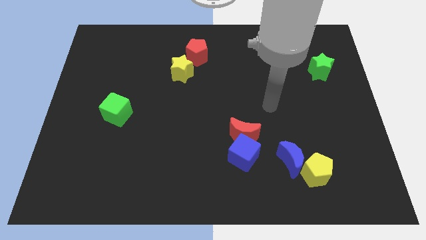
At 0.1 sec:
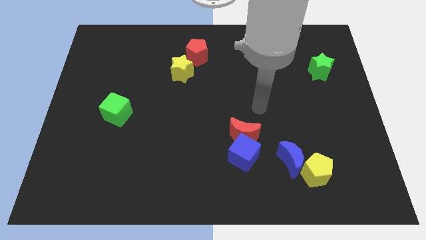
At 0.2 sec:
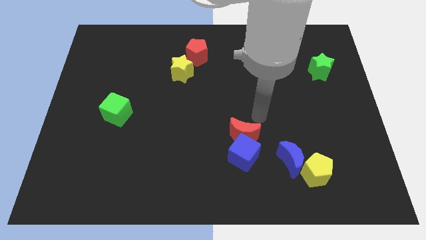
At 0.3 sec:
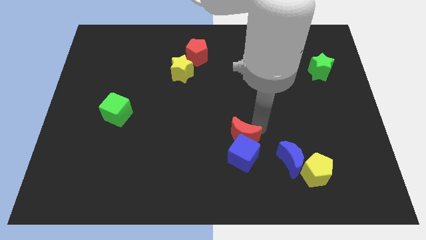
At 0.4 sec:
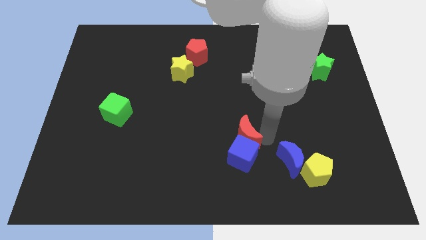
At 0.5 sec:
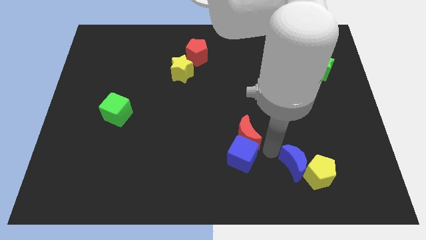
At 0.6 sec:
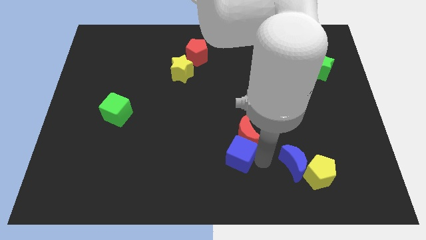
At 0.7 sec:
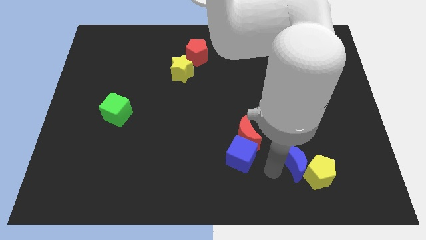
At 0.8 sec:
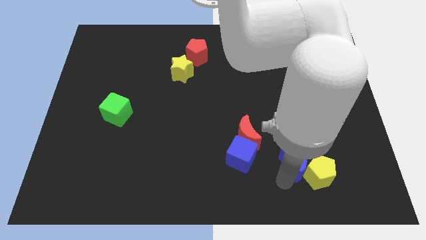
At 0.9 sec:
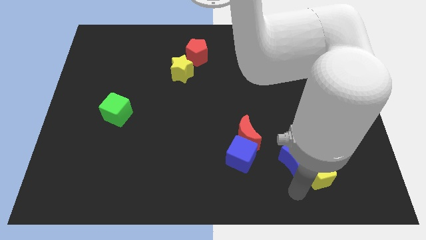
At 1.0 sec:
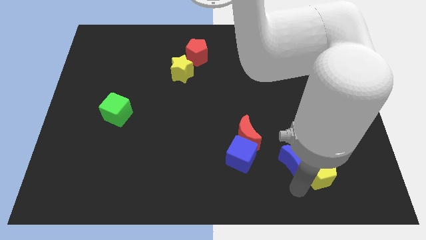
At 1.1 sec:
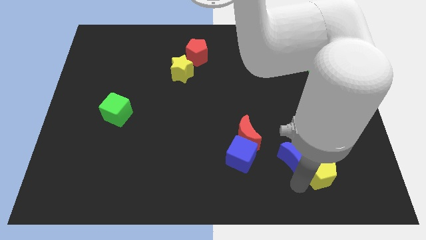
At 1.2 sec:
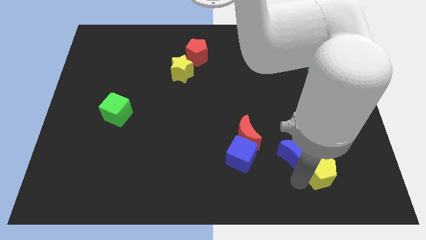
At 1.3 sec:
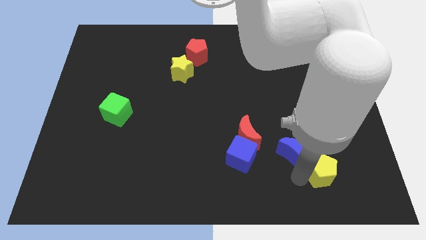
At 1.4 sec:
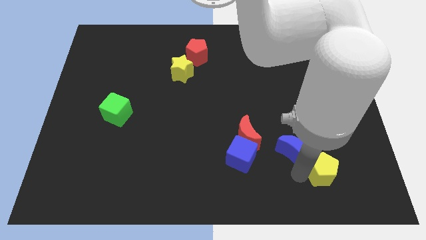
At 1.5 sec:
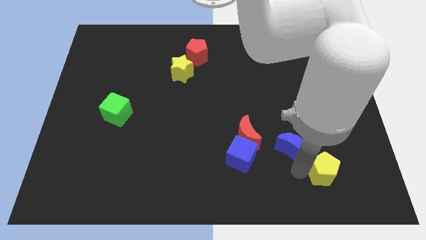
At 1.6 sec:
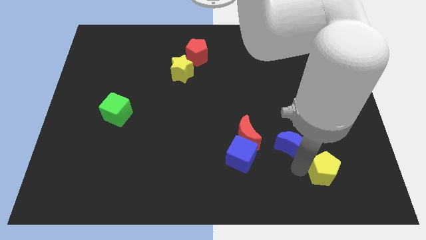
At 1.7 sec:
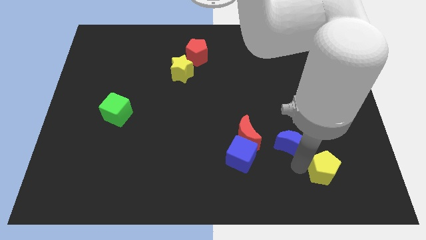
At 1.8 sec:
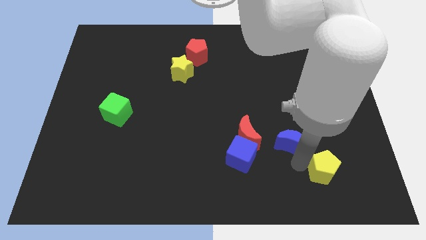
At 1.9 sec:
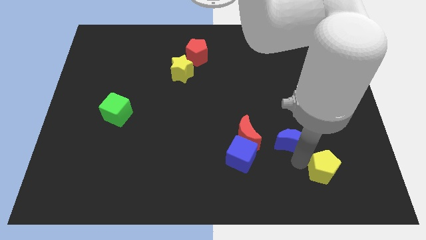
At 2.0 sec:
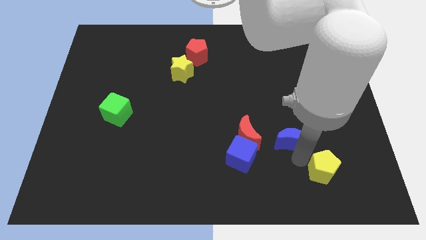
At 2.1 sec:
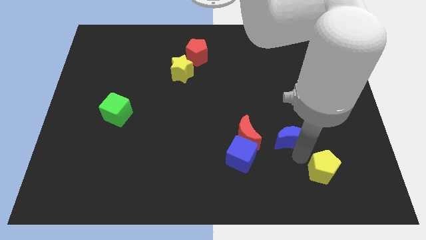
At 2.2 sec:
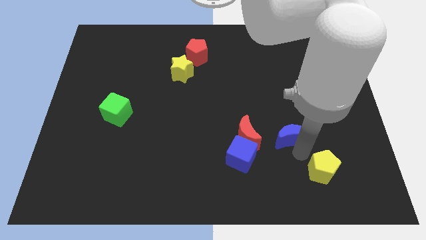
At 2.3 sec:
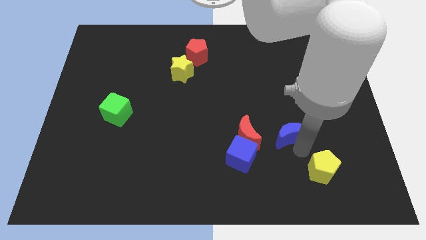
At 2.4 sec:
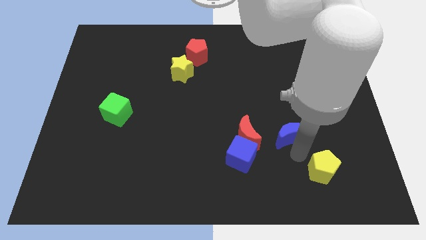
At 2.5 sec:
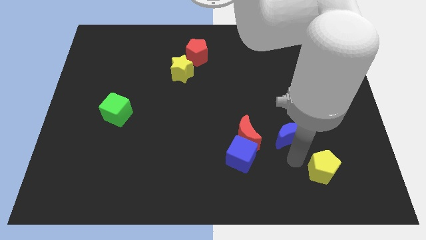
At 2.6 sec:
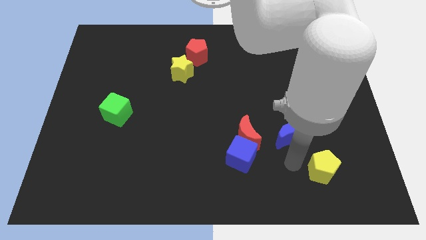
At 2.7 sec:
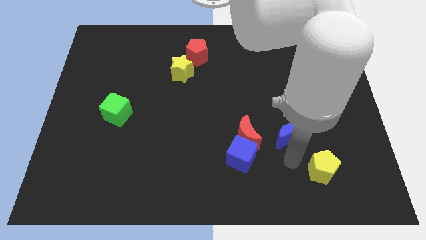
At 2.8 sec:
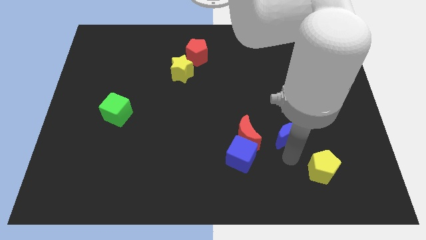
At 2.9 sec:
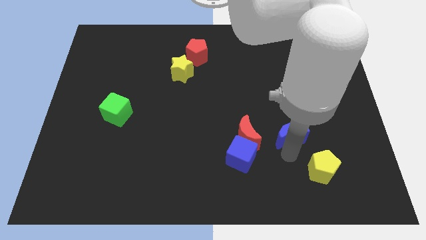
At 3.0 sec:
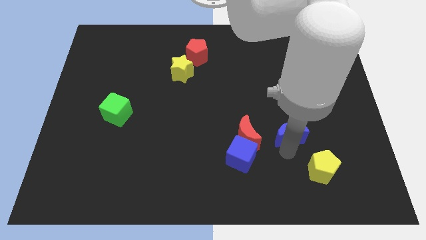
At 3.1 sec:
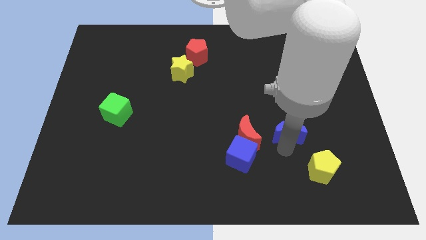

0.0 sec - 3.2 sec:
slightly push the blue moon up

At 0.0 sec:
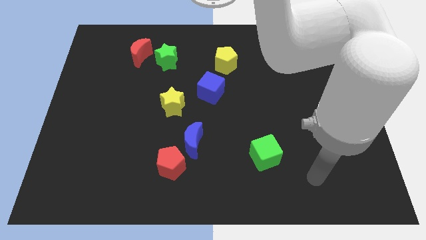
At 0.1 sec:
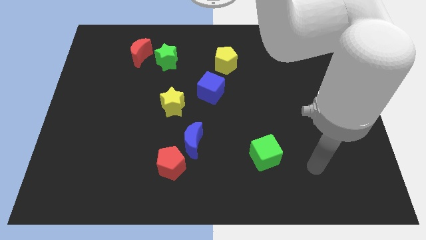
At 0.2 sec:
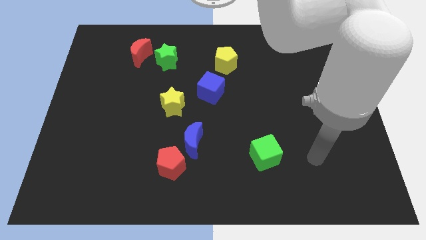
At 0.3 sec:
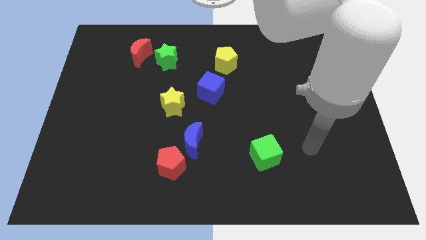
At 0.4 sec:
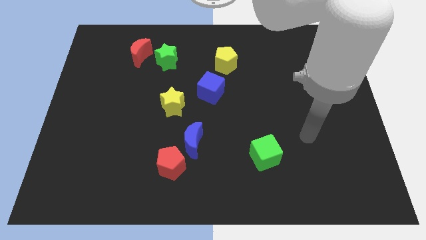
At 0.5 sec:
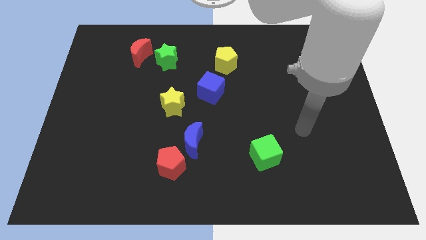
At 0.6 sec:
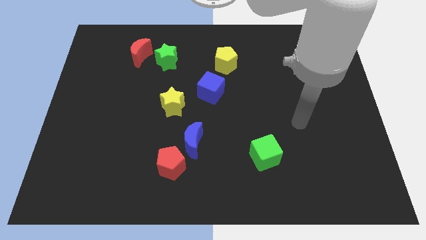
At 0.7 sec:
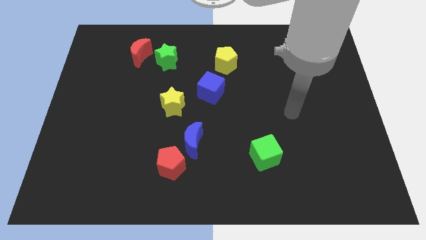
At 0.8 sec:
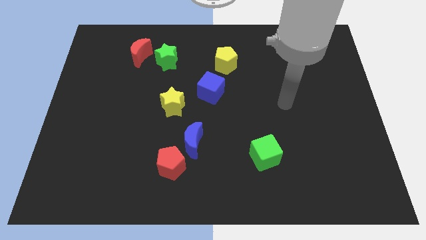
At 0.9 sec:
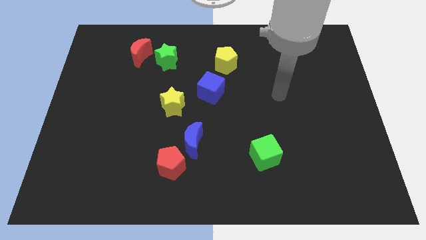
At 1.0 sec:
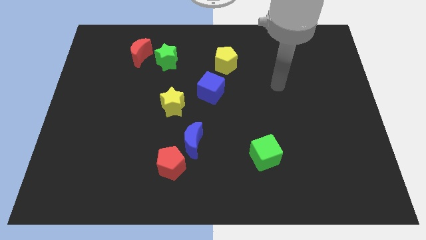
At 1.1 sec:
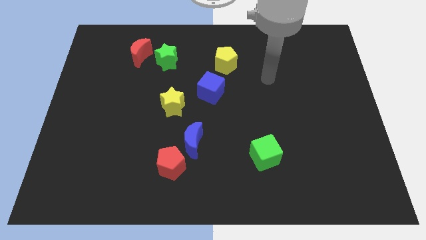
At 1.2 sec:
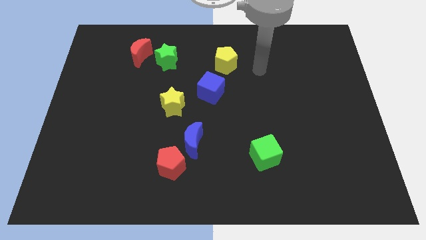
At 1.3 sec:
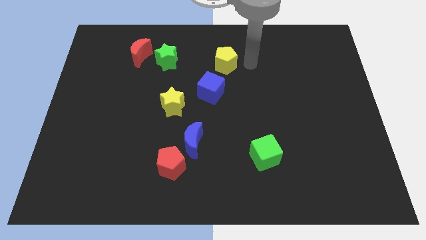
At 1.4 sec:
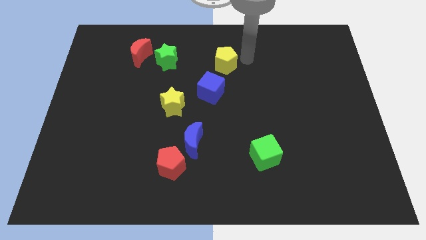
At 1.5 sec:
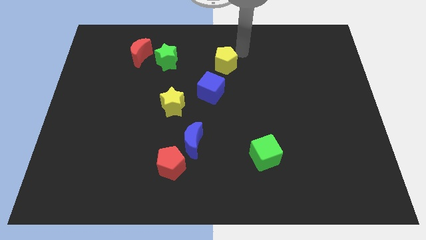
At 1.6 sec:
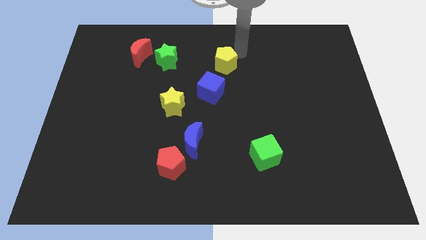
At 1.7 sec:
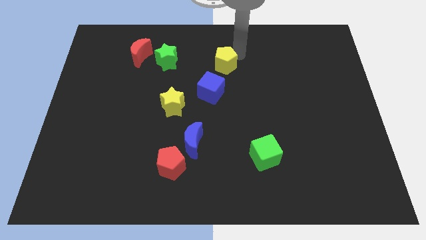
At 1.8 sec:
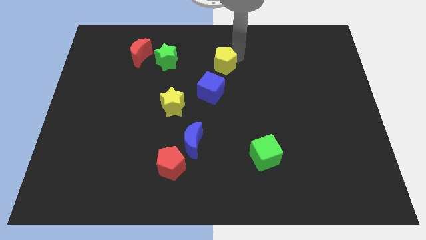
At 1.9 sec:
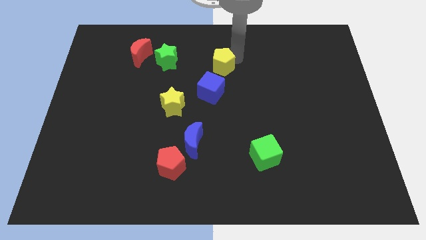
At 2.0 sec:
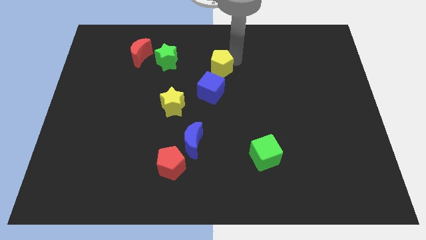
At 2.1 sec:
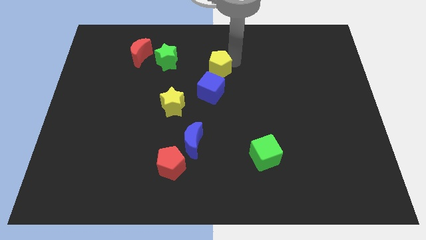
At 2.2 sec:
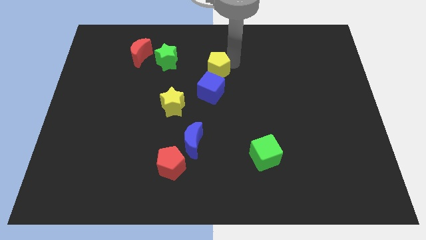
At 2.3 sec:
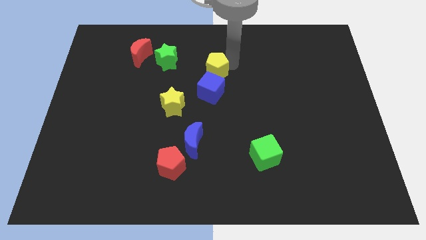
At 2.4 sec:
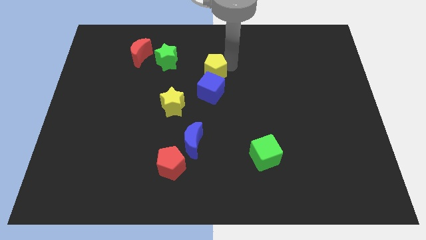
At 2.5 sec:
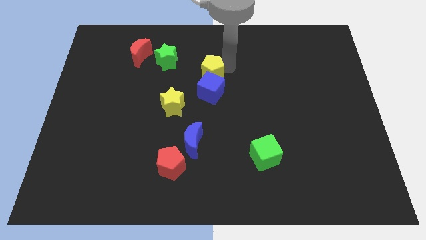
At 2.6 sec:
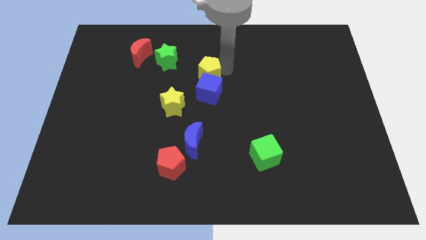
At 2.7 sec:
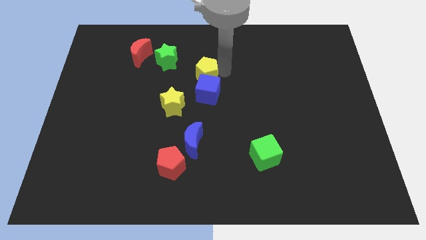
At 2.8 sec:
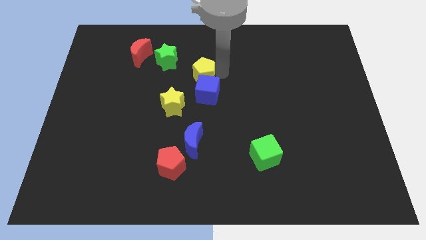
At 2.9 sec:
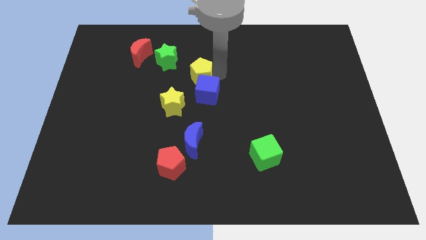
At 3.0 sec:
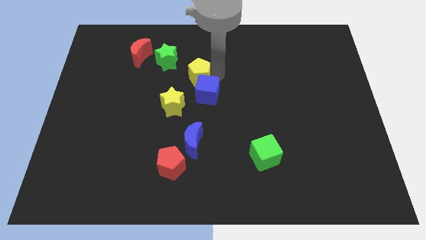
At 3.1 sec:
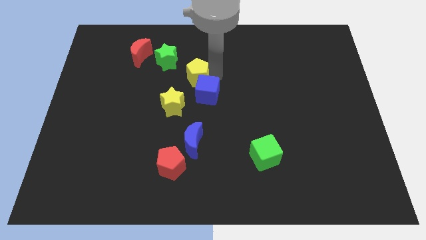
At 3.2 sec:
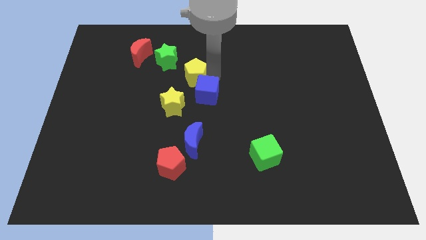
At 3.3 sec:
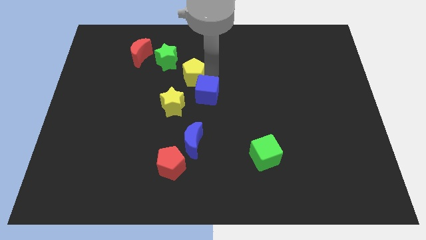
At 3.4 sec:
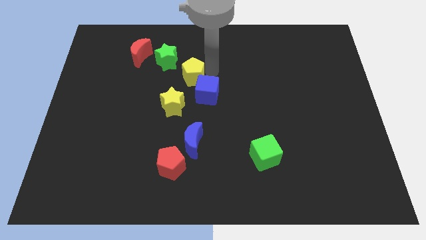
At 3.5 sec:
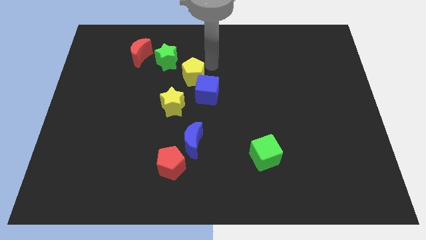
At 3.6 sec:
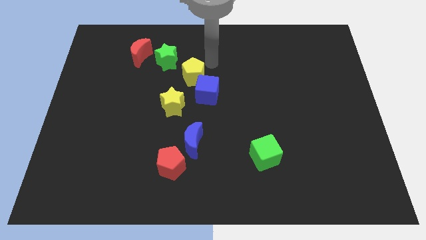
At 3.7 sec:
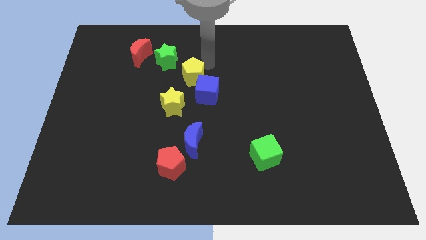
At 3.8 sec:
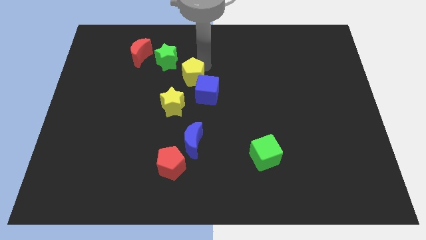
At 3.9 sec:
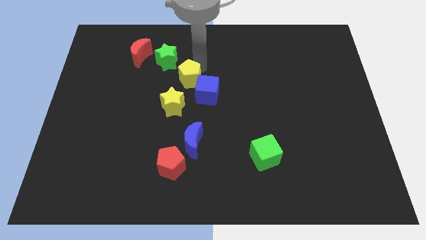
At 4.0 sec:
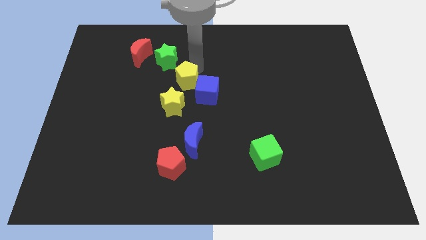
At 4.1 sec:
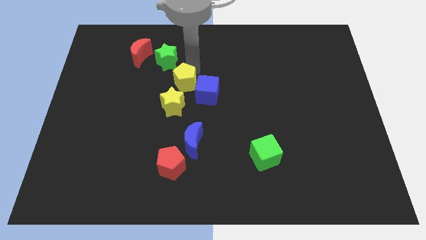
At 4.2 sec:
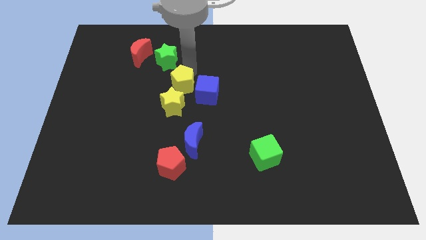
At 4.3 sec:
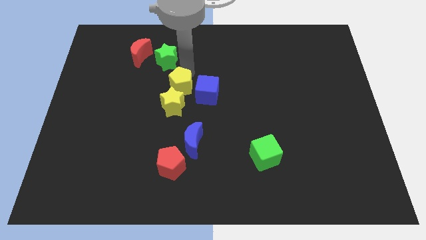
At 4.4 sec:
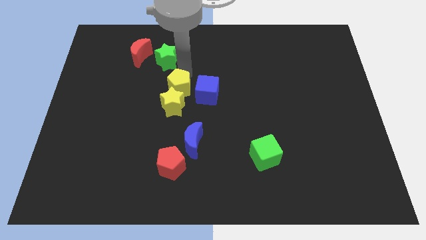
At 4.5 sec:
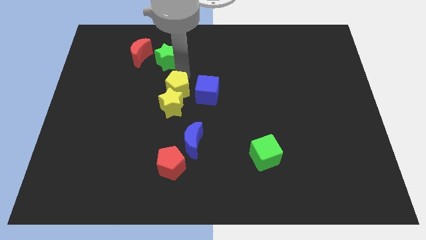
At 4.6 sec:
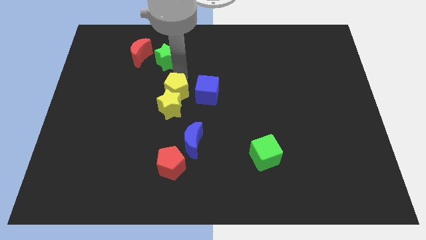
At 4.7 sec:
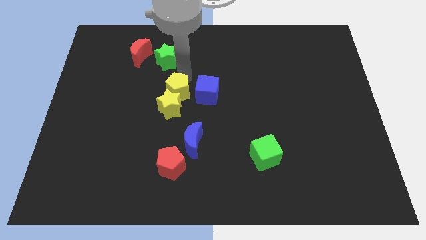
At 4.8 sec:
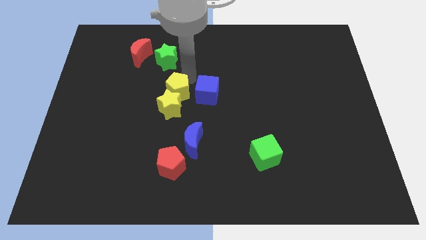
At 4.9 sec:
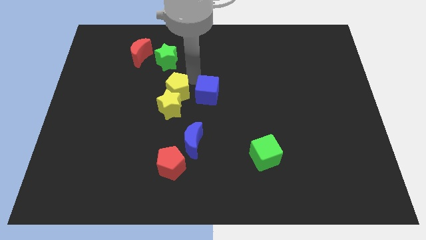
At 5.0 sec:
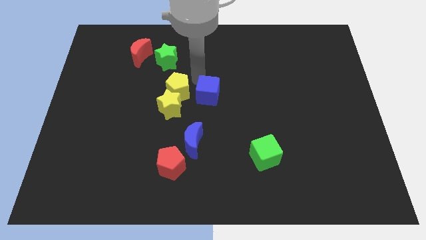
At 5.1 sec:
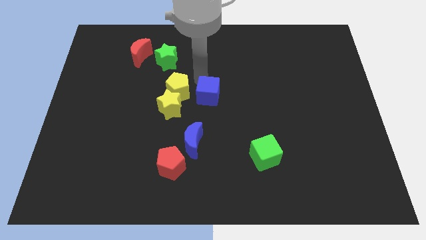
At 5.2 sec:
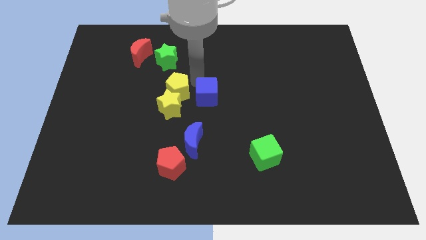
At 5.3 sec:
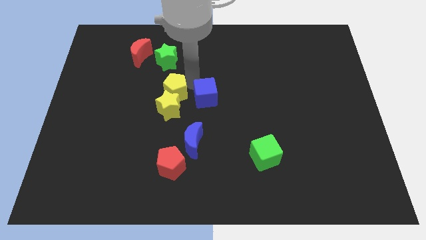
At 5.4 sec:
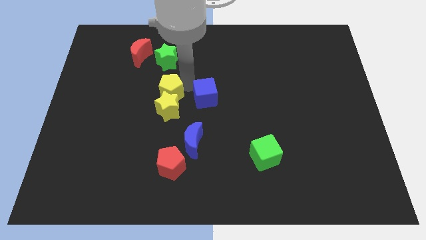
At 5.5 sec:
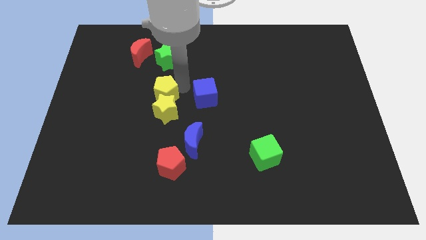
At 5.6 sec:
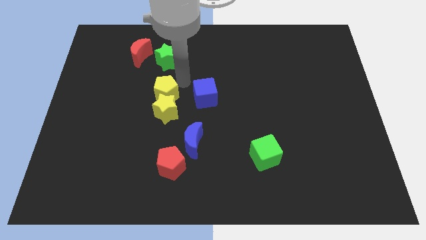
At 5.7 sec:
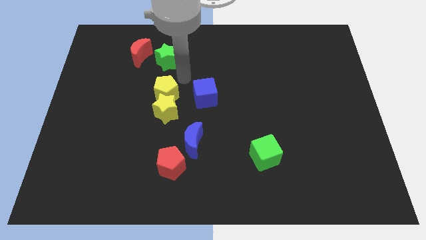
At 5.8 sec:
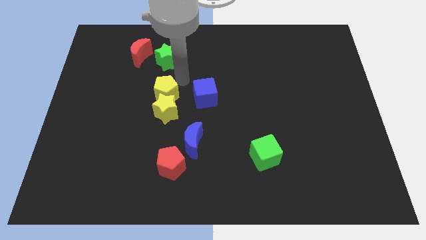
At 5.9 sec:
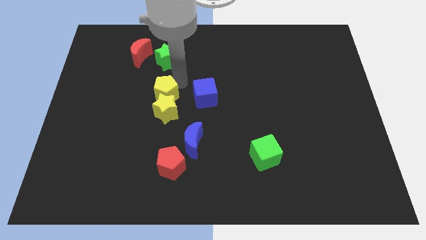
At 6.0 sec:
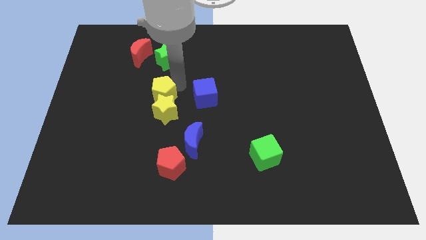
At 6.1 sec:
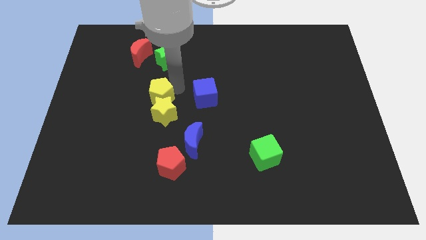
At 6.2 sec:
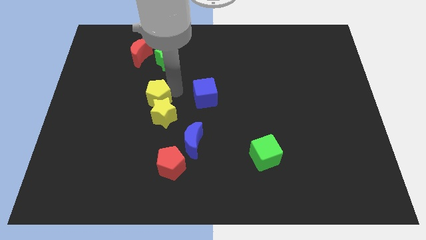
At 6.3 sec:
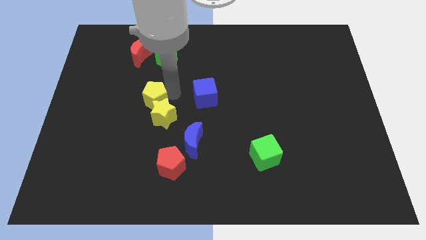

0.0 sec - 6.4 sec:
slide the yellow pentagon downwards and then left
